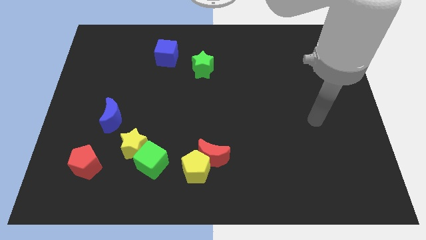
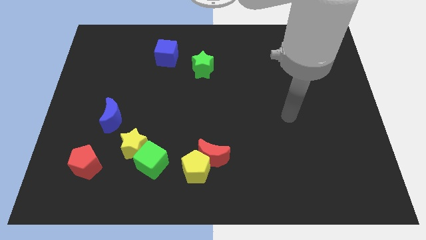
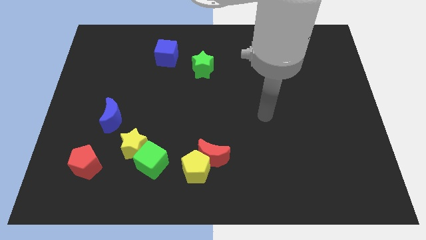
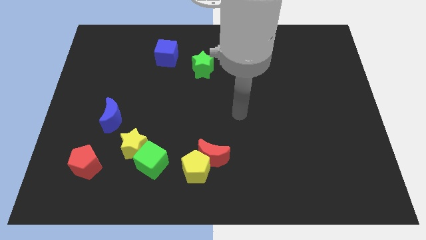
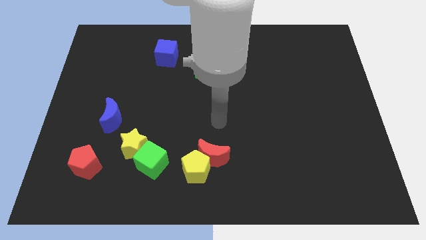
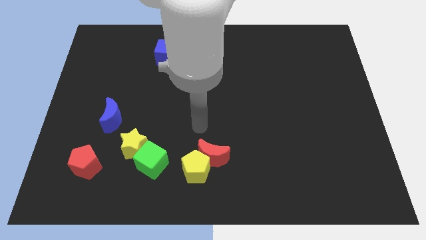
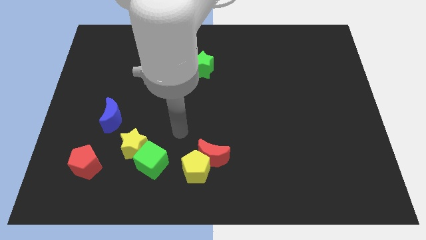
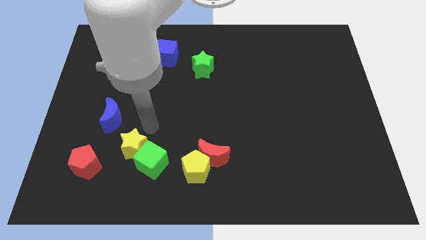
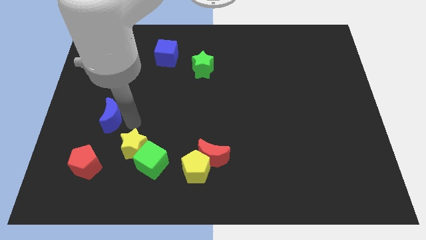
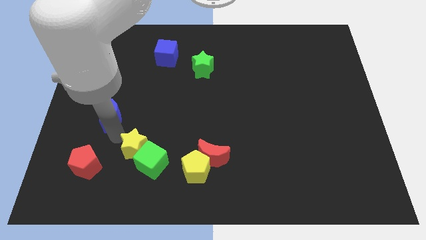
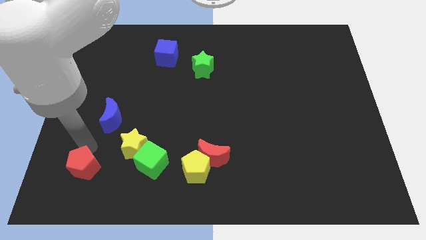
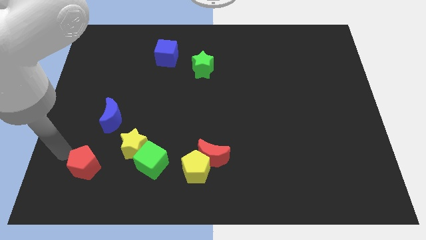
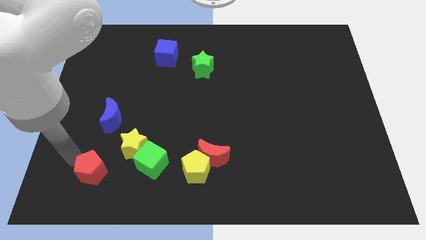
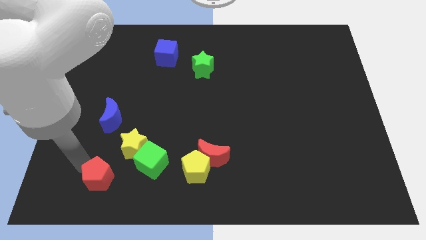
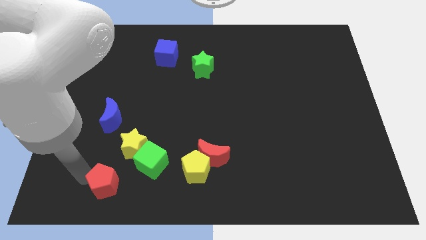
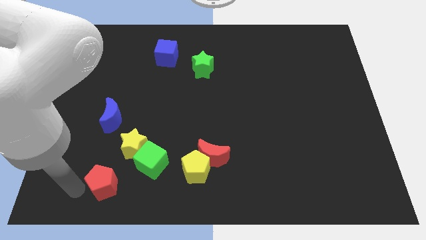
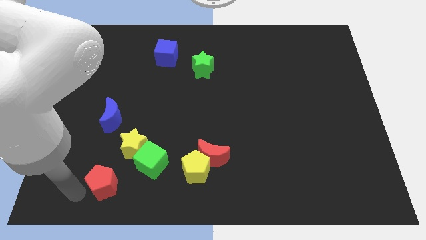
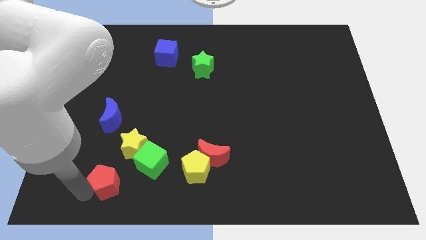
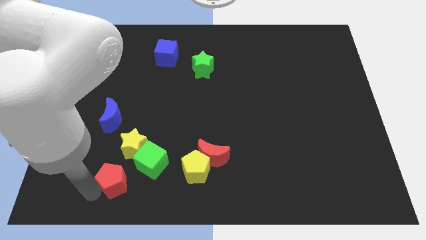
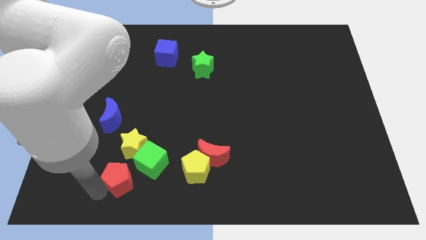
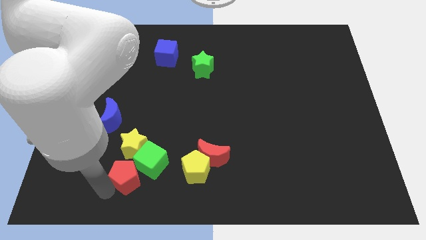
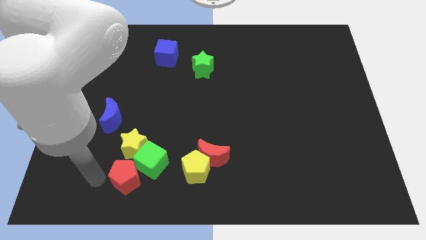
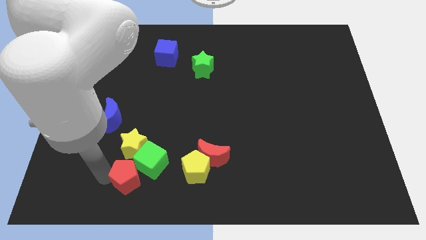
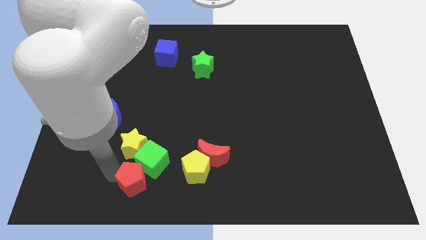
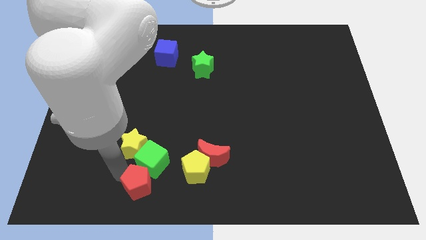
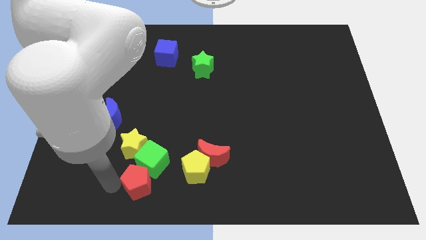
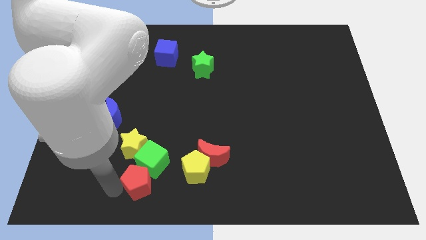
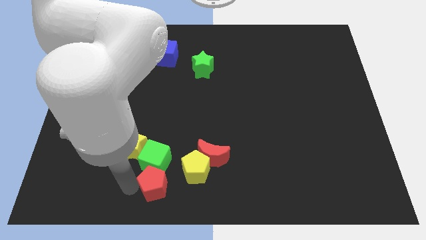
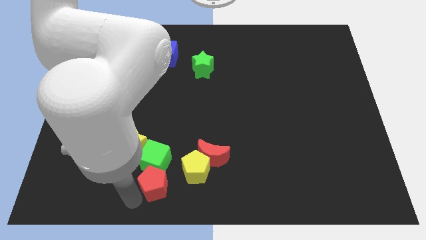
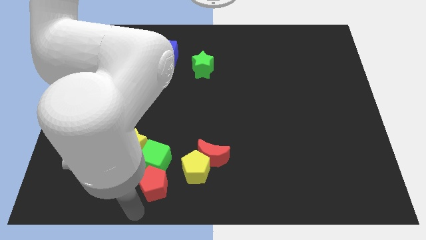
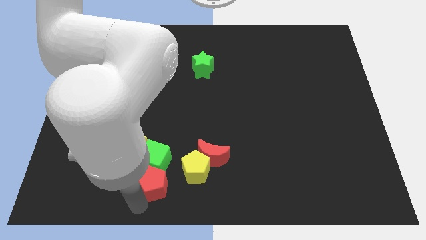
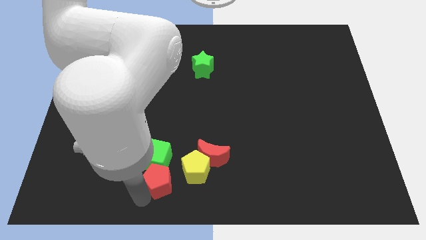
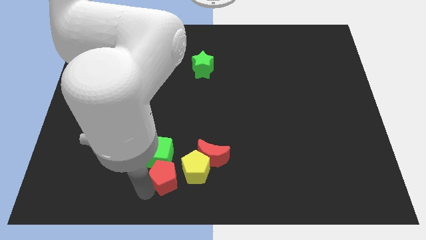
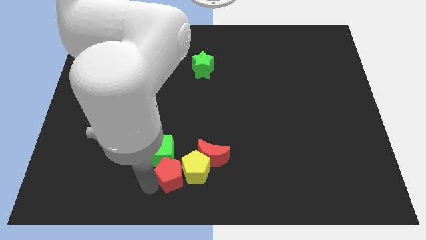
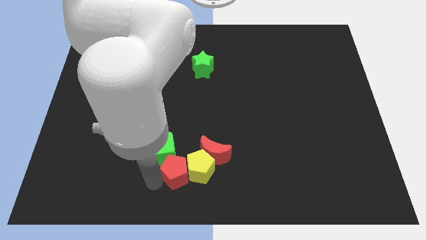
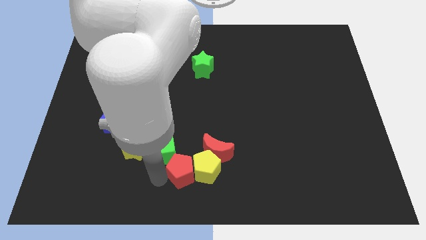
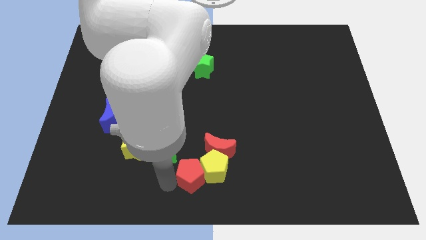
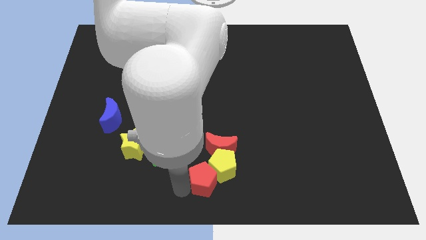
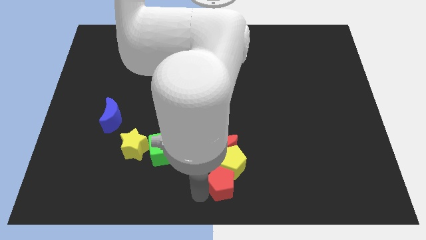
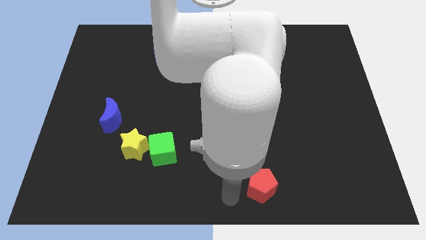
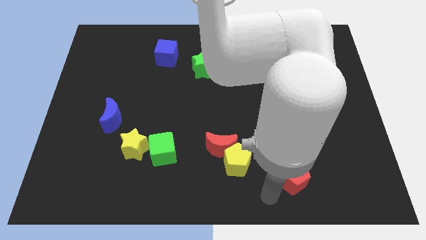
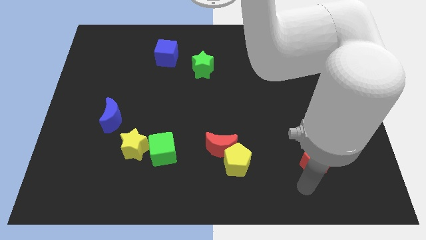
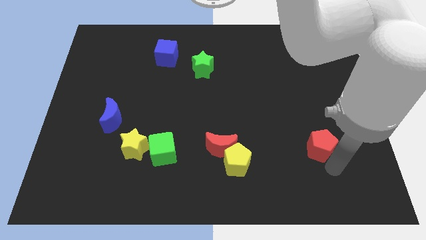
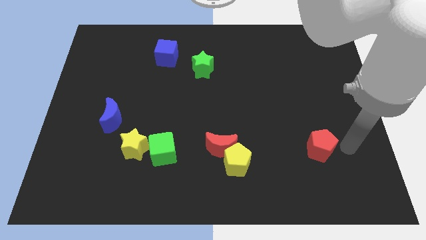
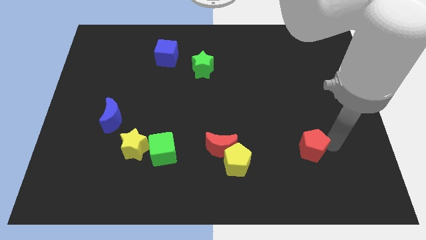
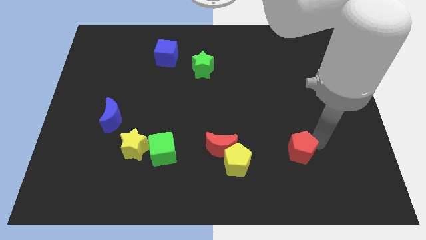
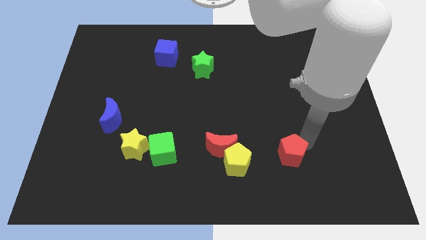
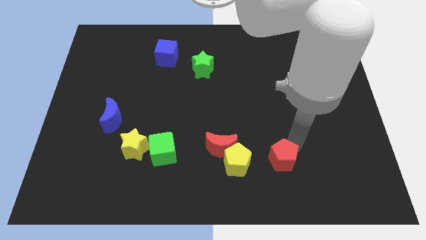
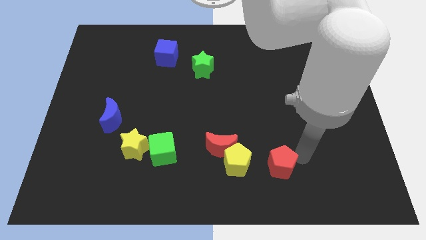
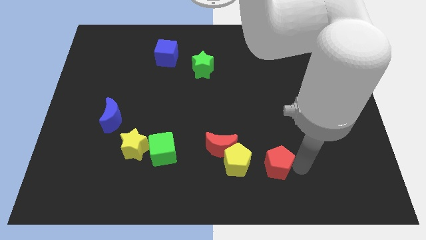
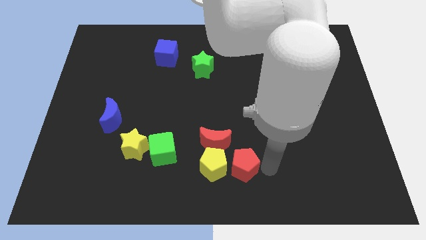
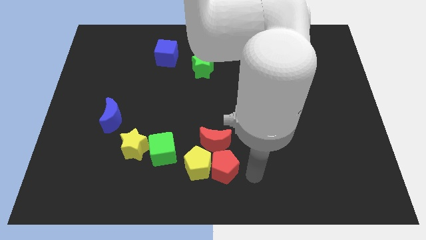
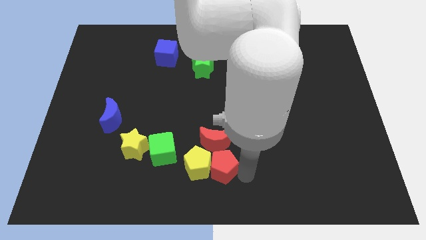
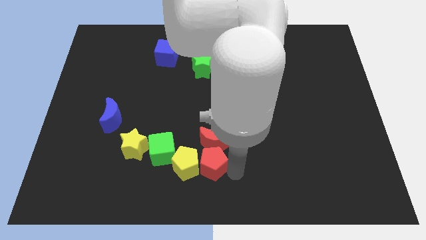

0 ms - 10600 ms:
slide the red pentagon towards the red moon

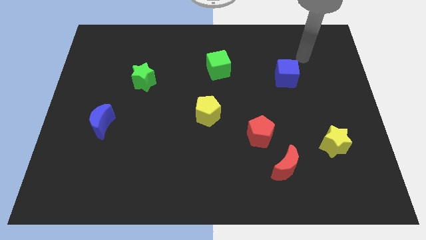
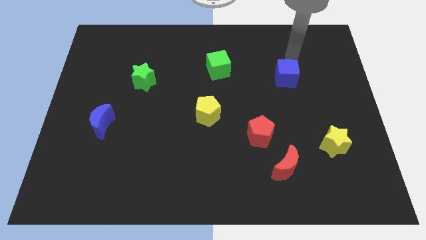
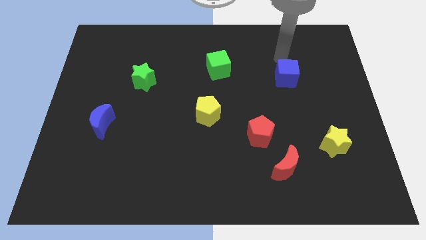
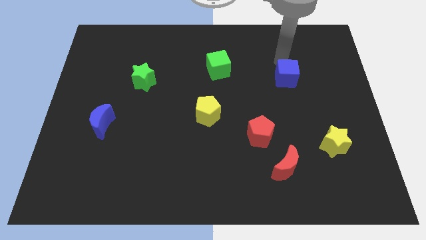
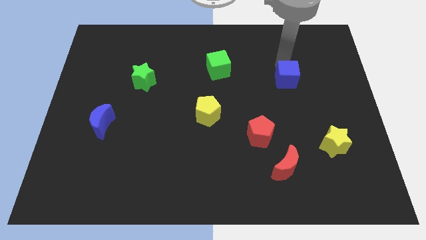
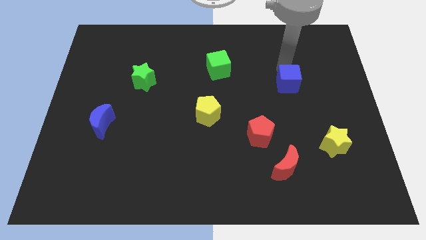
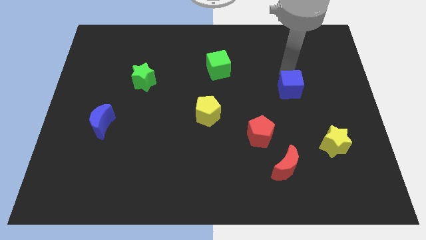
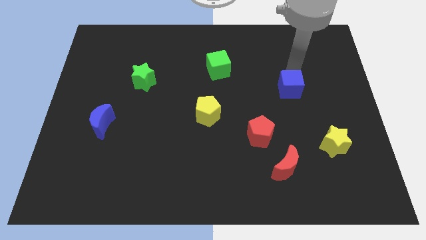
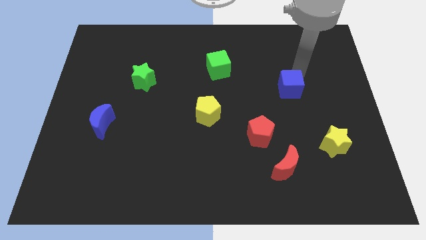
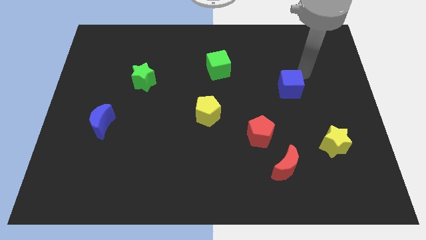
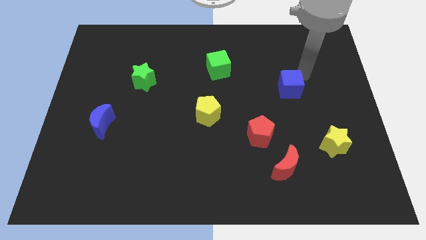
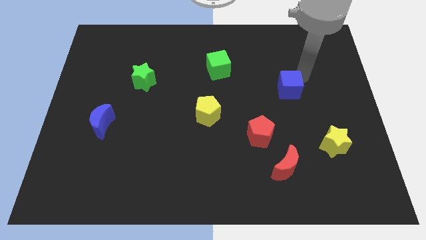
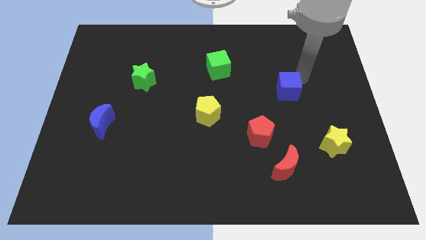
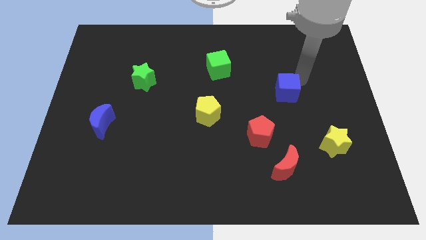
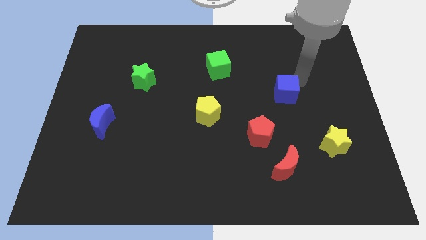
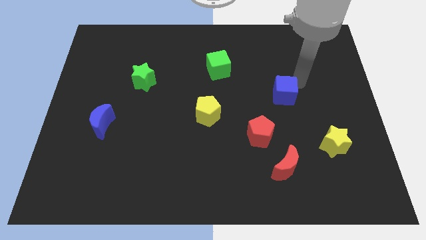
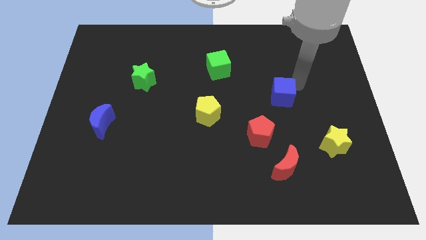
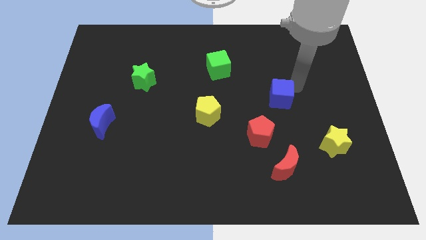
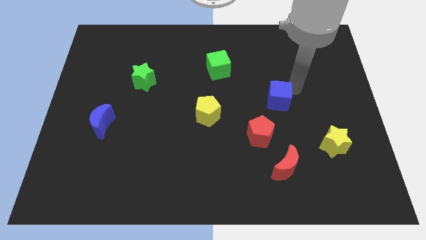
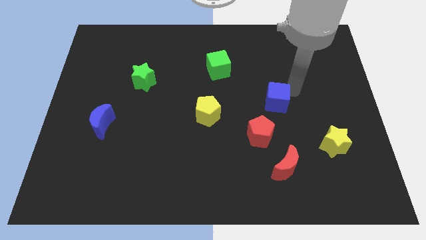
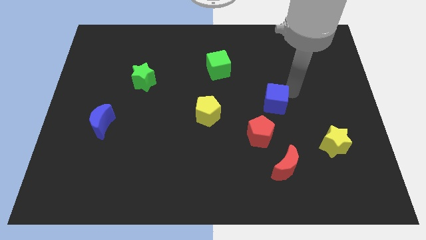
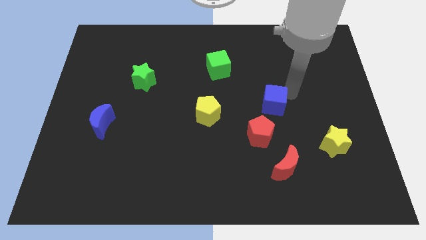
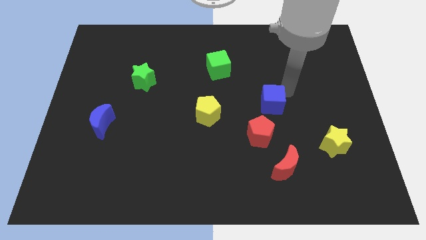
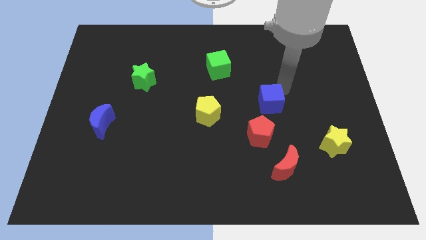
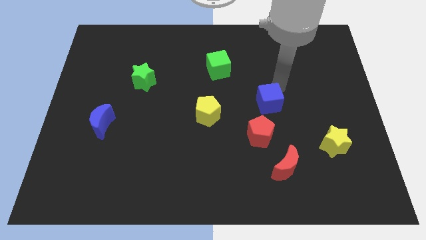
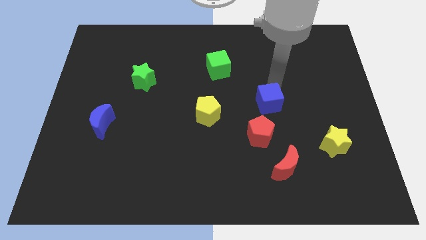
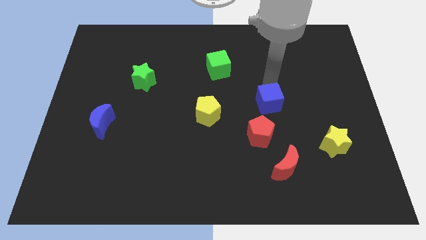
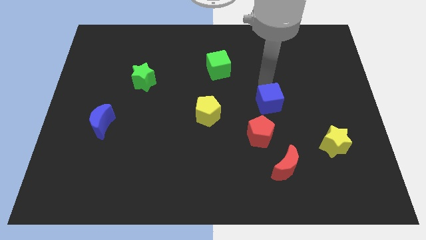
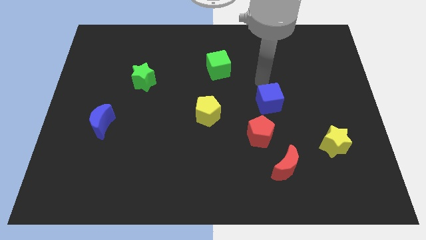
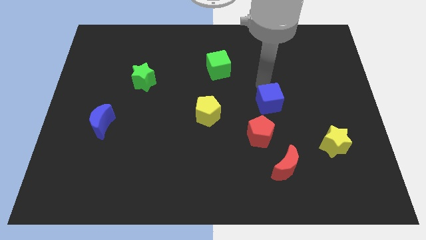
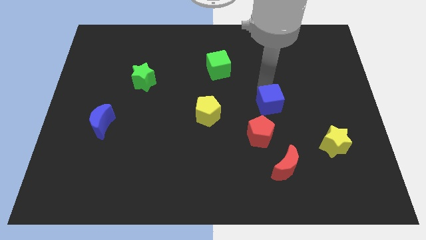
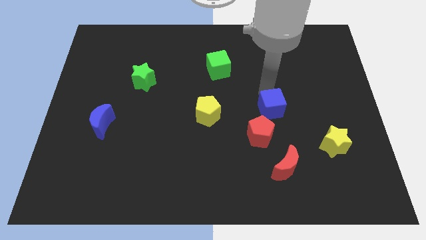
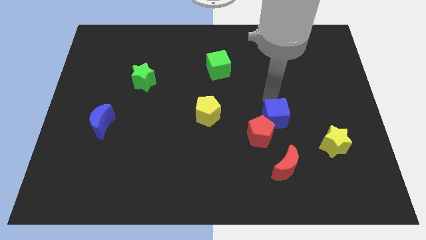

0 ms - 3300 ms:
slide the blue cube next to the red pentagon
